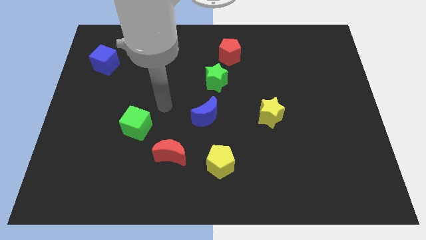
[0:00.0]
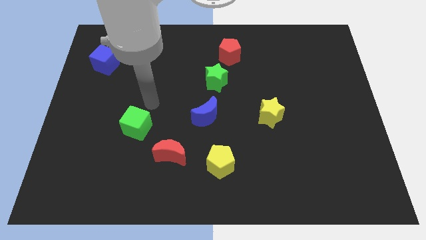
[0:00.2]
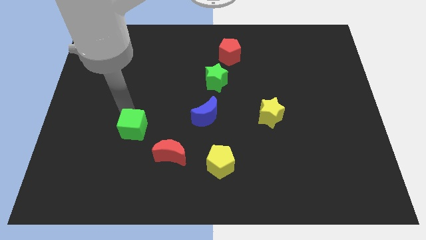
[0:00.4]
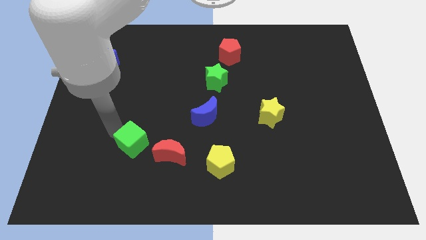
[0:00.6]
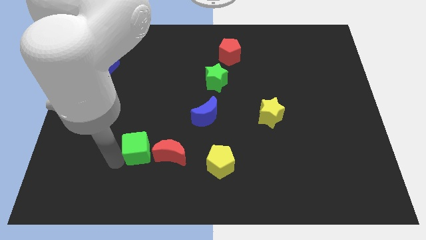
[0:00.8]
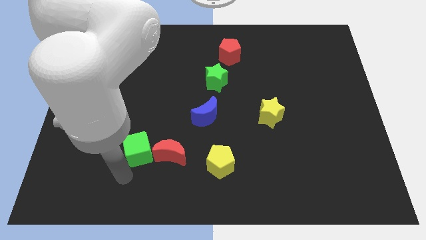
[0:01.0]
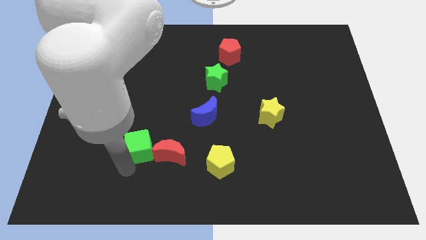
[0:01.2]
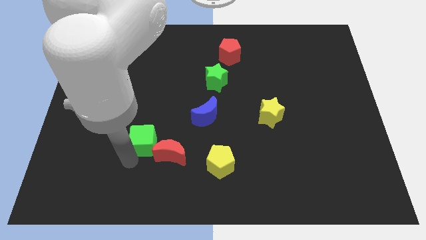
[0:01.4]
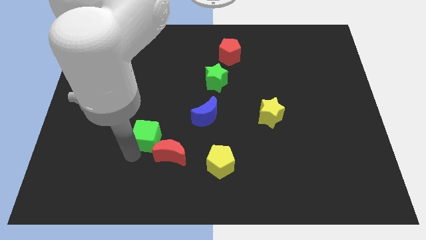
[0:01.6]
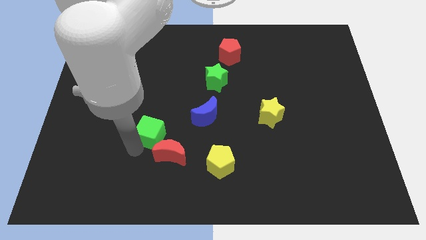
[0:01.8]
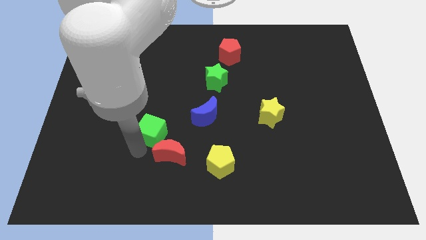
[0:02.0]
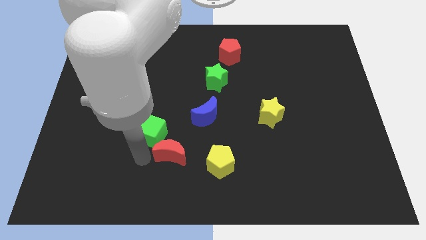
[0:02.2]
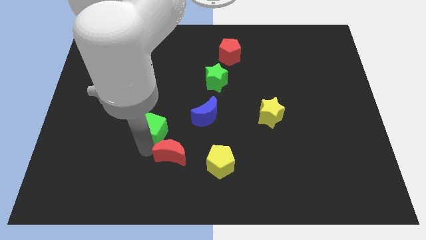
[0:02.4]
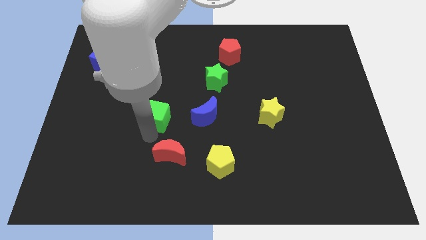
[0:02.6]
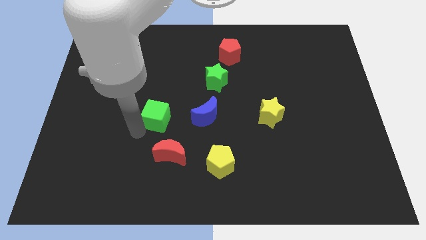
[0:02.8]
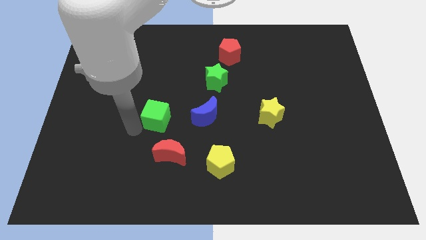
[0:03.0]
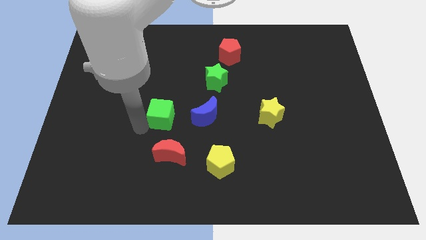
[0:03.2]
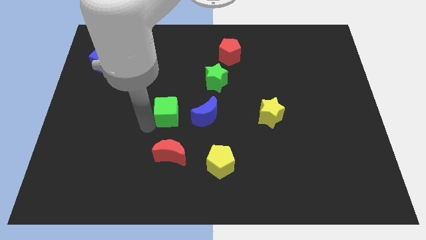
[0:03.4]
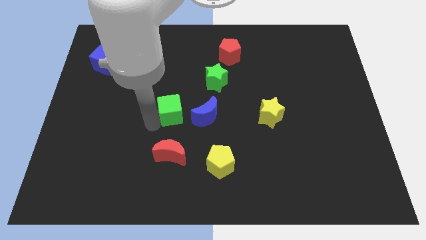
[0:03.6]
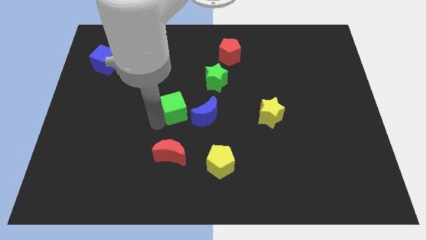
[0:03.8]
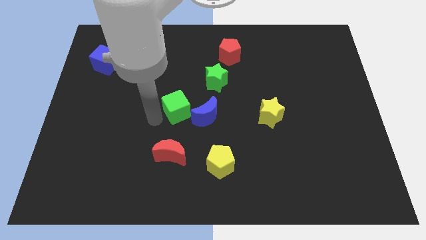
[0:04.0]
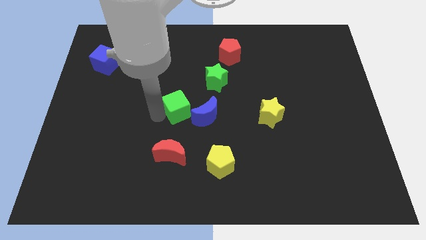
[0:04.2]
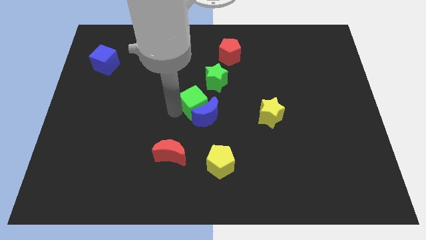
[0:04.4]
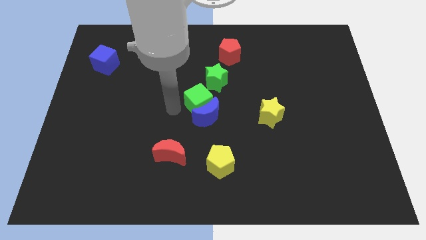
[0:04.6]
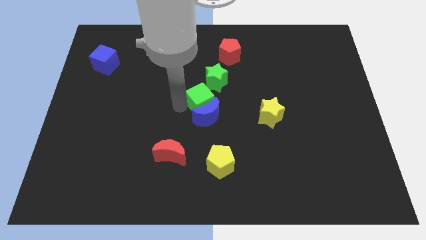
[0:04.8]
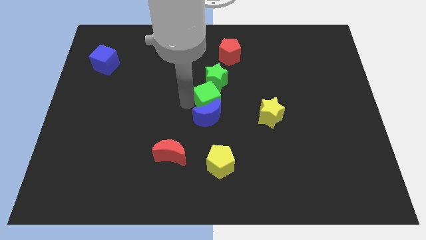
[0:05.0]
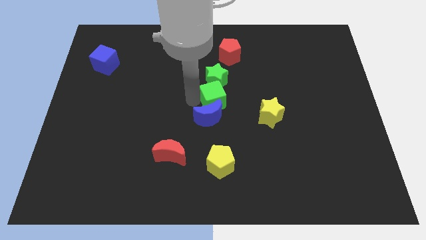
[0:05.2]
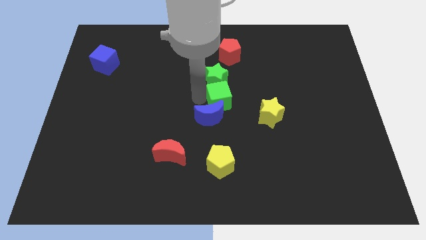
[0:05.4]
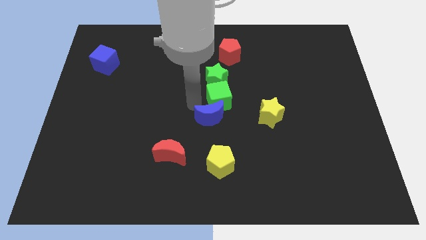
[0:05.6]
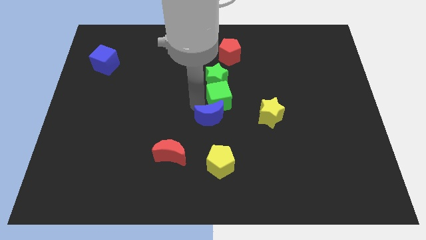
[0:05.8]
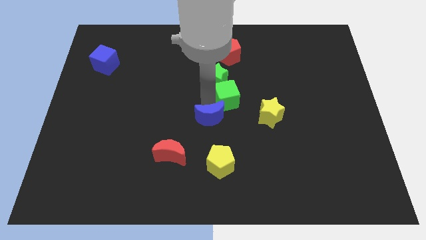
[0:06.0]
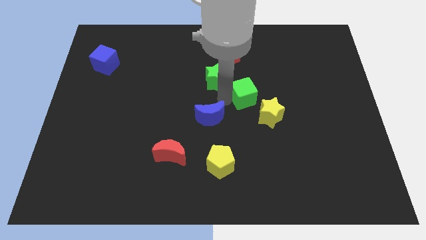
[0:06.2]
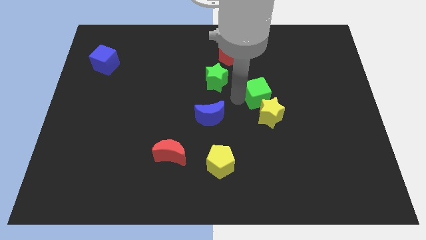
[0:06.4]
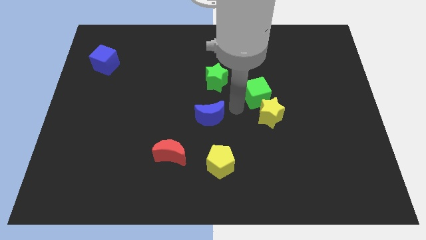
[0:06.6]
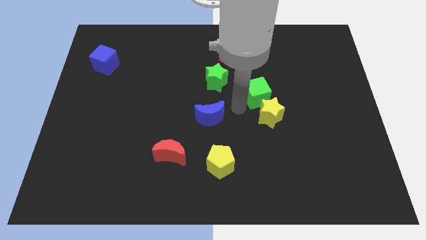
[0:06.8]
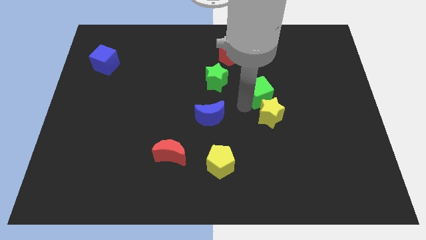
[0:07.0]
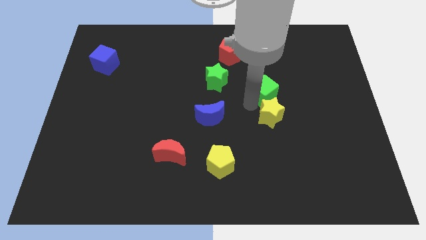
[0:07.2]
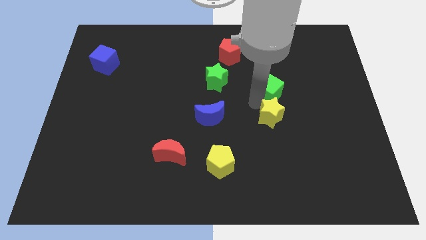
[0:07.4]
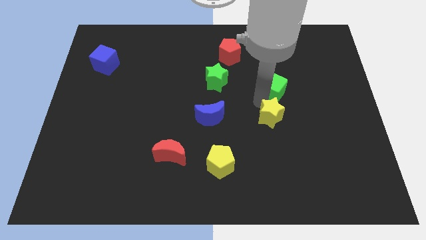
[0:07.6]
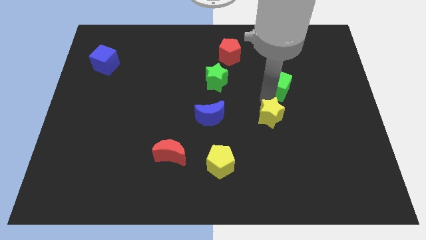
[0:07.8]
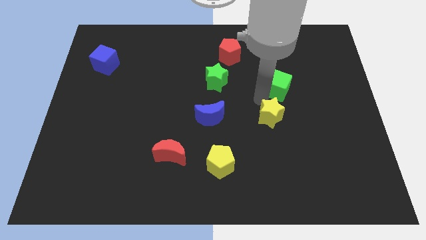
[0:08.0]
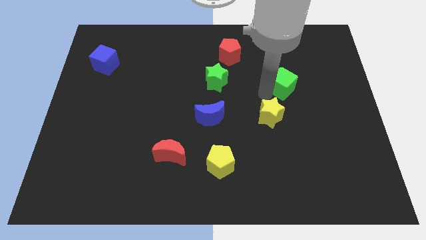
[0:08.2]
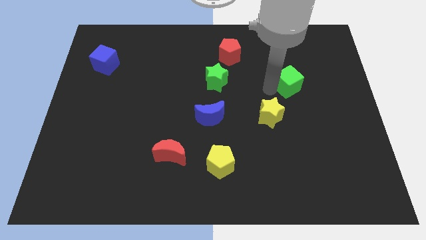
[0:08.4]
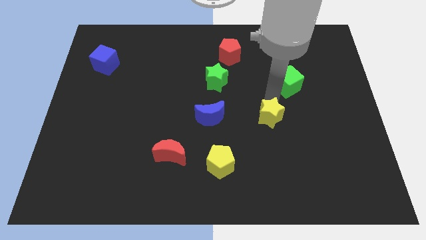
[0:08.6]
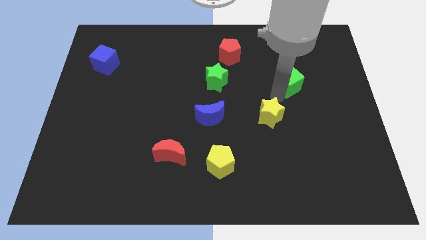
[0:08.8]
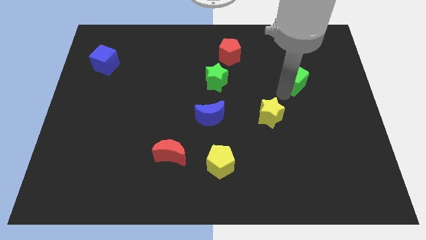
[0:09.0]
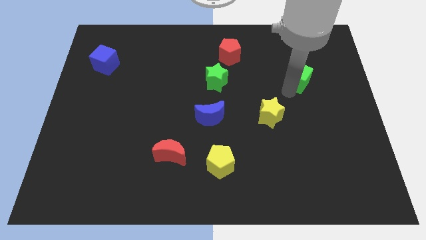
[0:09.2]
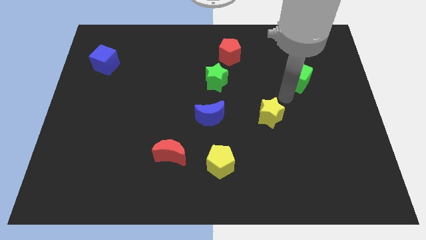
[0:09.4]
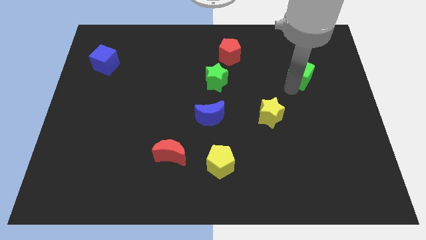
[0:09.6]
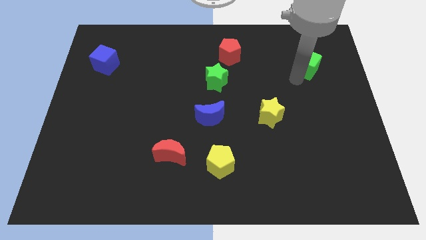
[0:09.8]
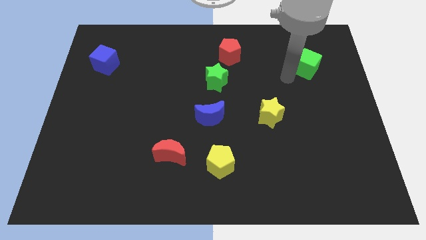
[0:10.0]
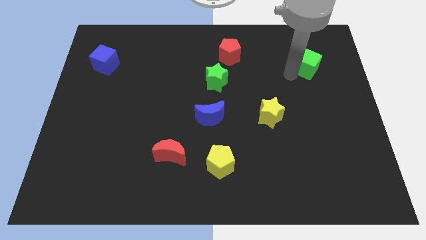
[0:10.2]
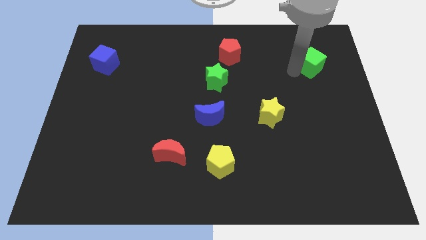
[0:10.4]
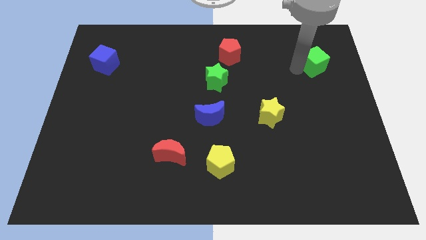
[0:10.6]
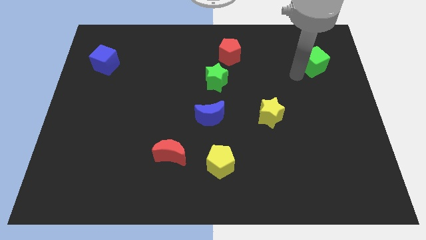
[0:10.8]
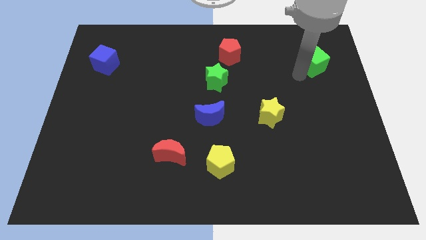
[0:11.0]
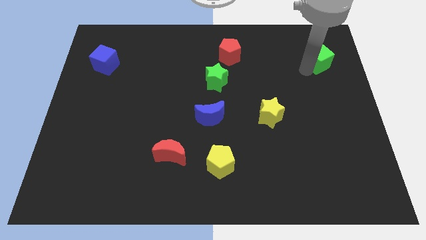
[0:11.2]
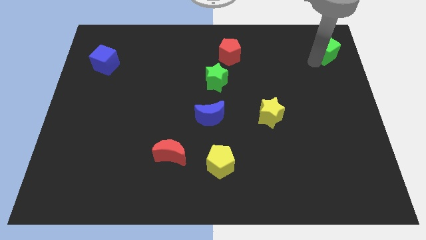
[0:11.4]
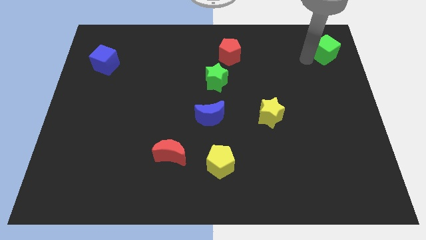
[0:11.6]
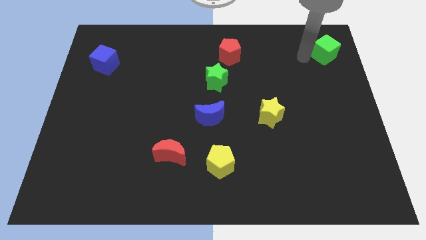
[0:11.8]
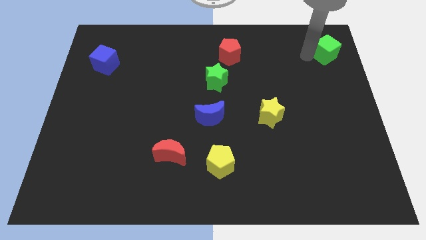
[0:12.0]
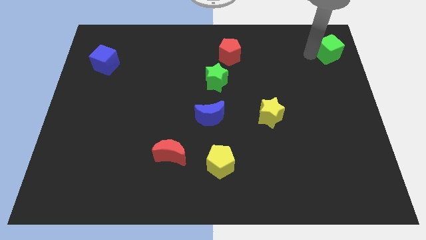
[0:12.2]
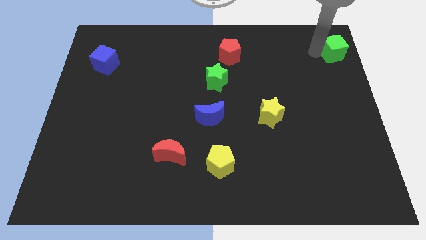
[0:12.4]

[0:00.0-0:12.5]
push the green cube to the top right

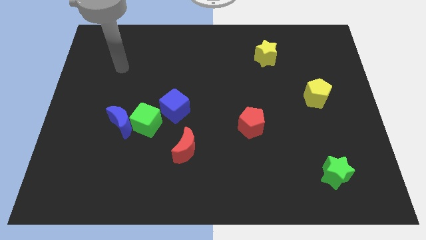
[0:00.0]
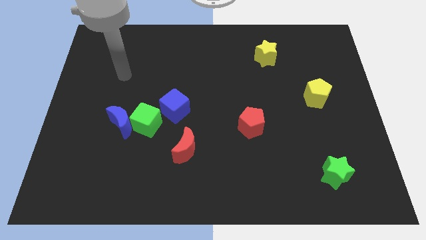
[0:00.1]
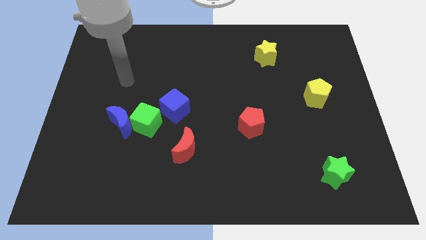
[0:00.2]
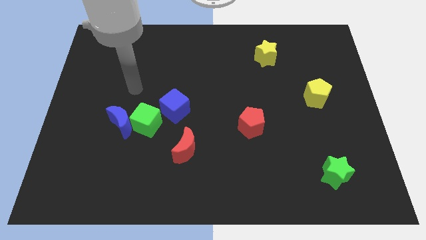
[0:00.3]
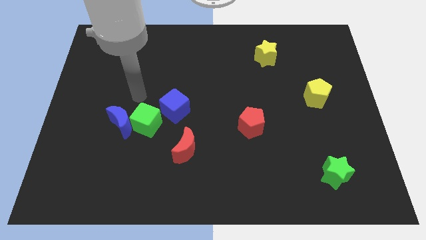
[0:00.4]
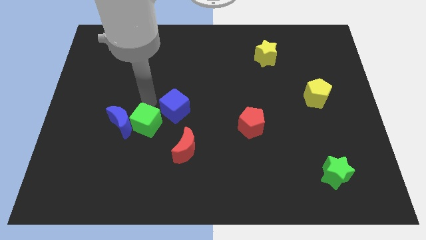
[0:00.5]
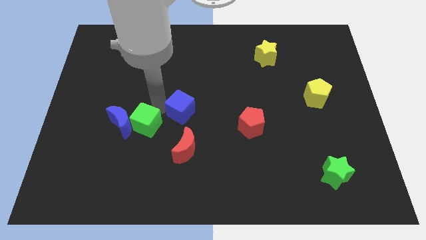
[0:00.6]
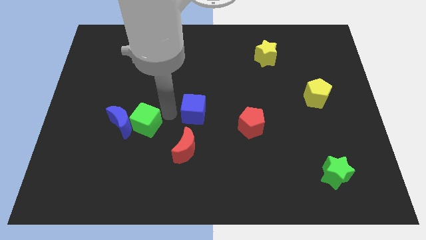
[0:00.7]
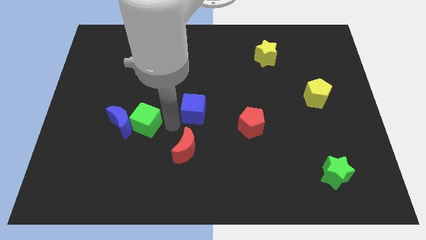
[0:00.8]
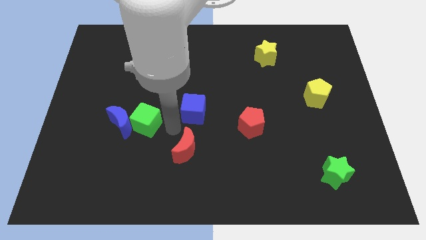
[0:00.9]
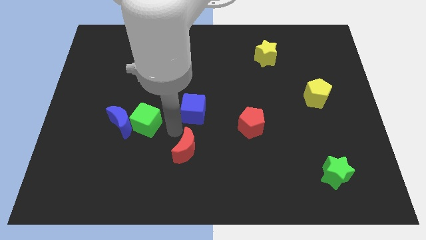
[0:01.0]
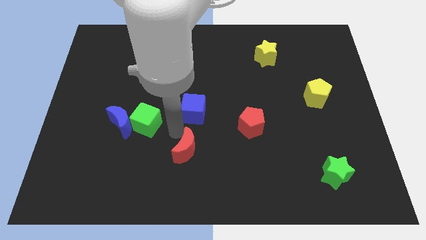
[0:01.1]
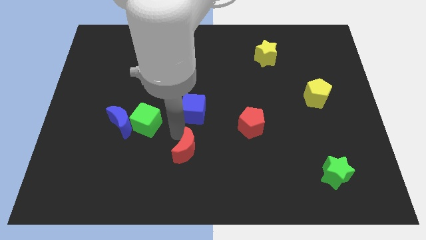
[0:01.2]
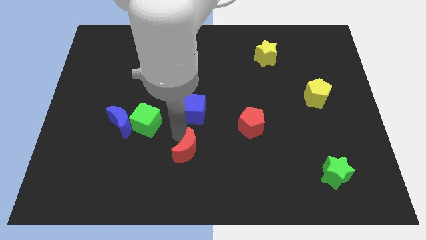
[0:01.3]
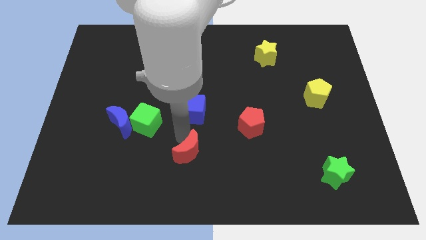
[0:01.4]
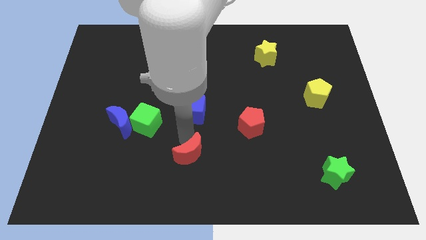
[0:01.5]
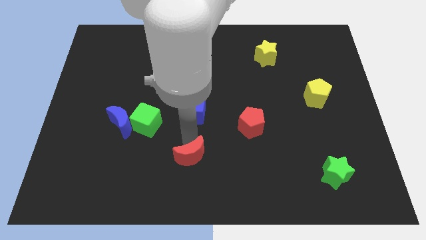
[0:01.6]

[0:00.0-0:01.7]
put the red moon to the bottom
